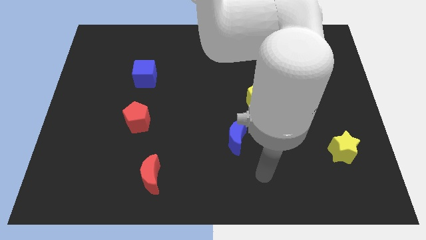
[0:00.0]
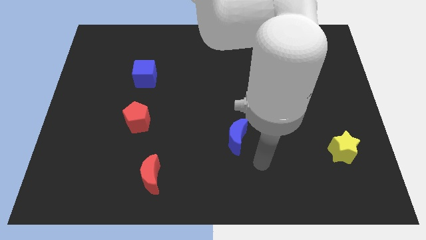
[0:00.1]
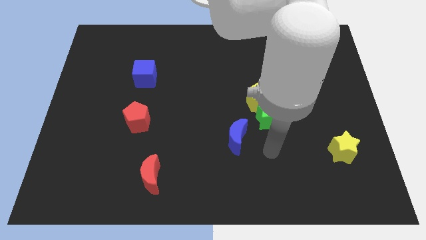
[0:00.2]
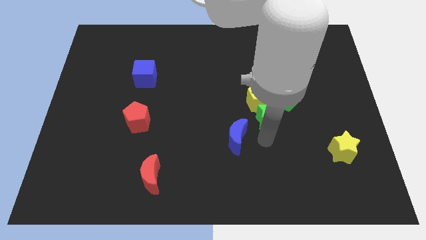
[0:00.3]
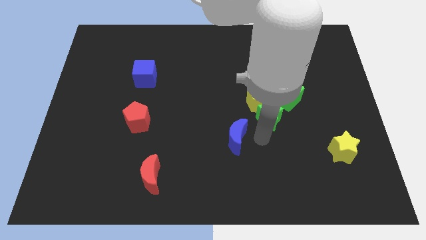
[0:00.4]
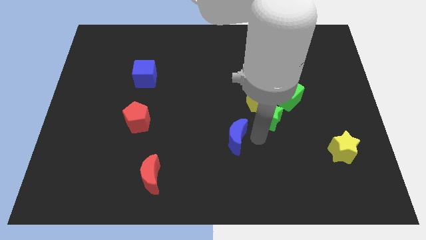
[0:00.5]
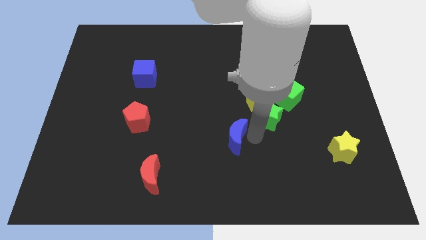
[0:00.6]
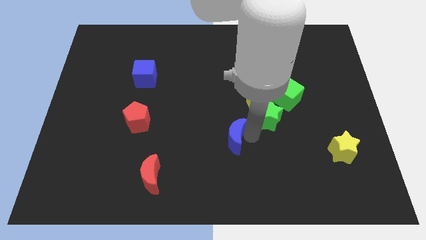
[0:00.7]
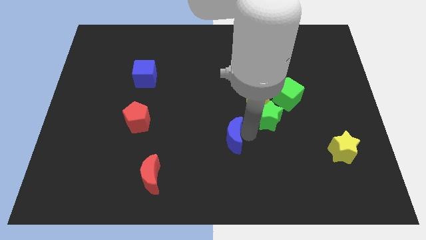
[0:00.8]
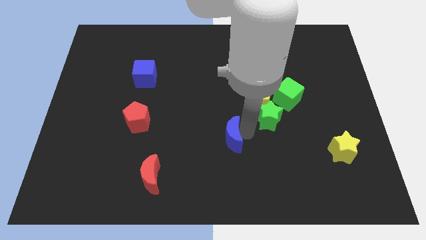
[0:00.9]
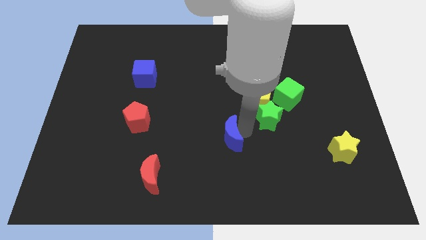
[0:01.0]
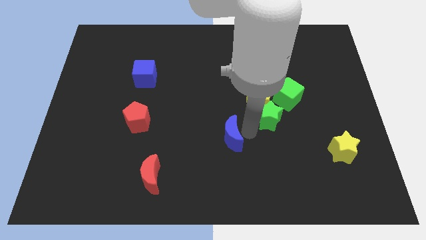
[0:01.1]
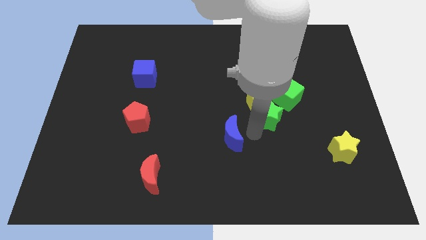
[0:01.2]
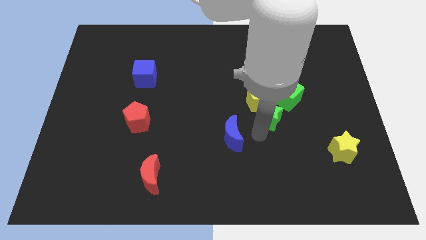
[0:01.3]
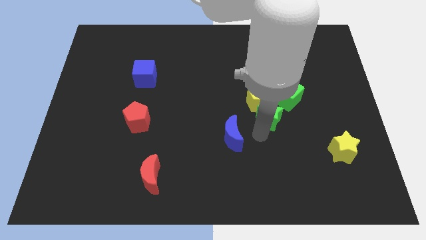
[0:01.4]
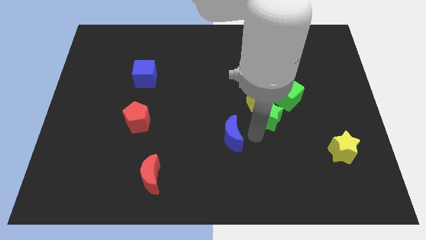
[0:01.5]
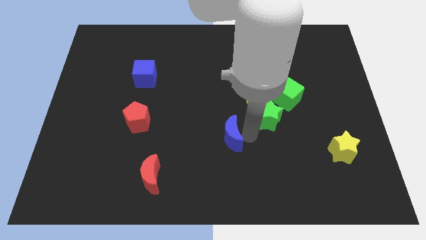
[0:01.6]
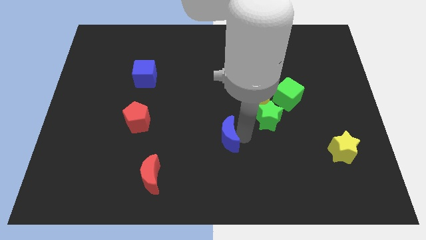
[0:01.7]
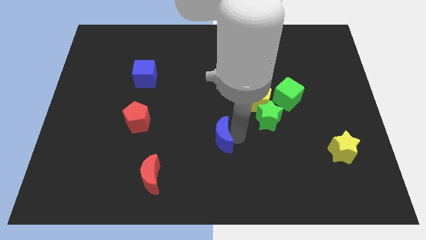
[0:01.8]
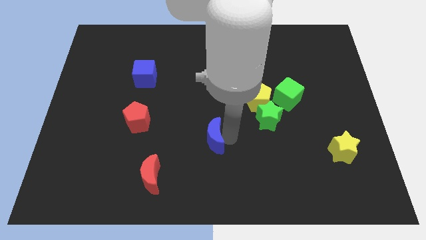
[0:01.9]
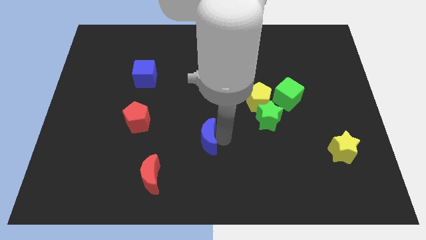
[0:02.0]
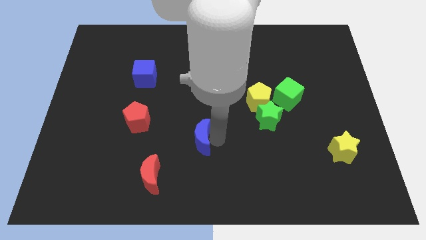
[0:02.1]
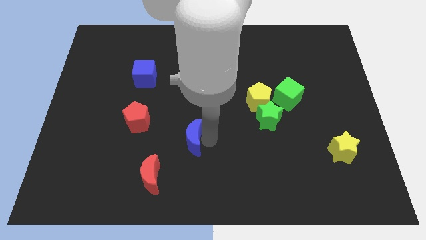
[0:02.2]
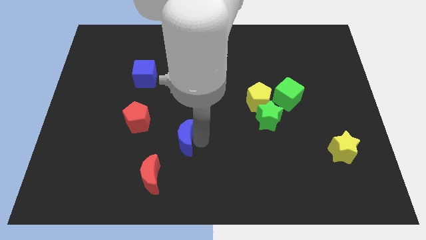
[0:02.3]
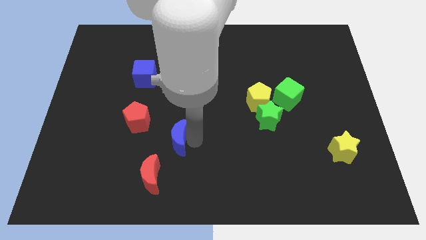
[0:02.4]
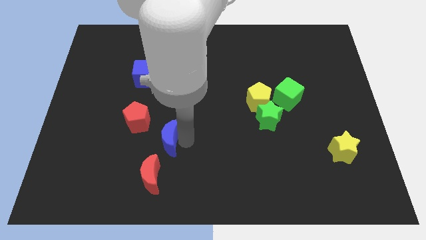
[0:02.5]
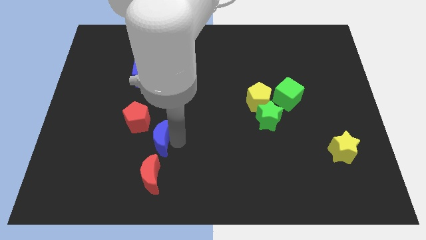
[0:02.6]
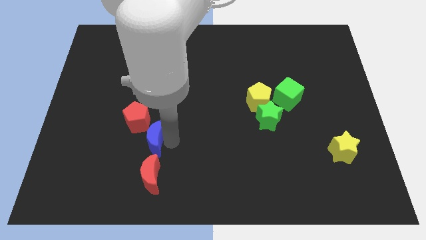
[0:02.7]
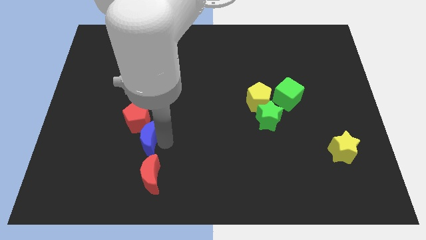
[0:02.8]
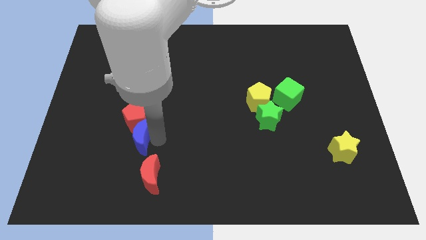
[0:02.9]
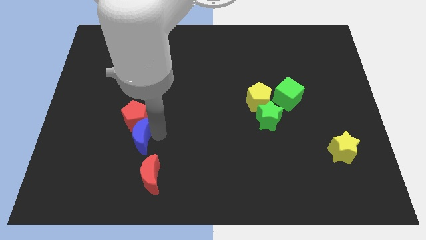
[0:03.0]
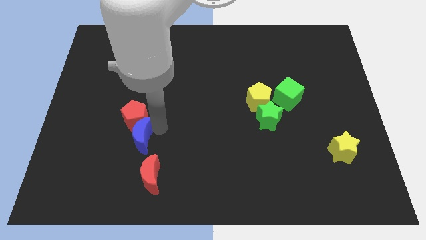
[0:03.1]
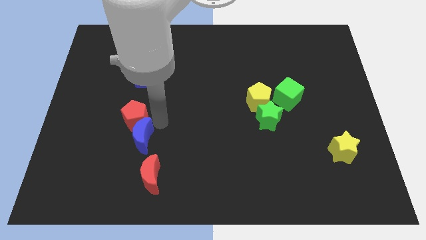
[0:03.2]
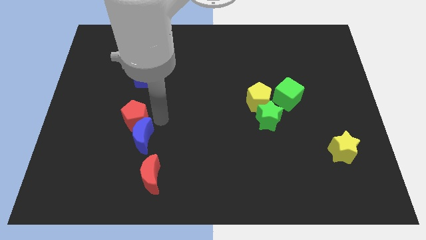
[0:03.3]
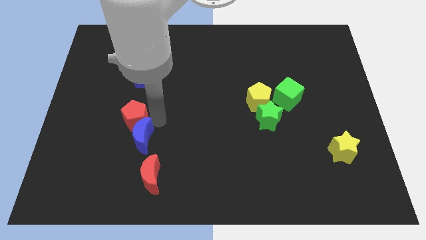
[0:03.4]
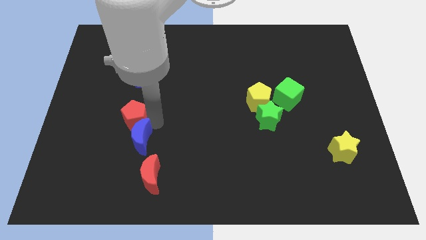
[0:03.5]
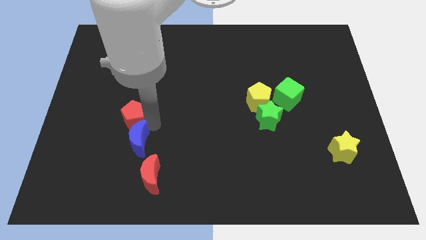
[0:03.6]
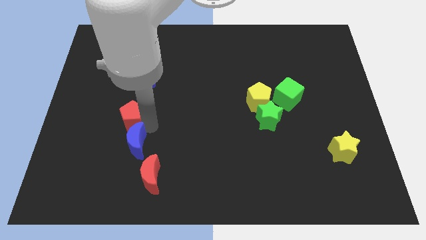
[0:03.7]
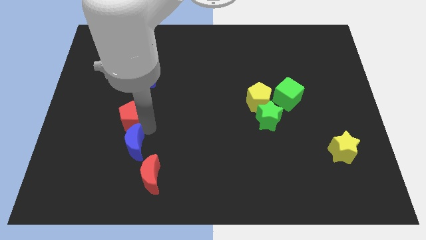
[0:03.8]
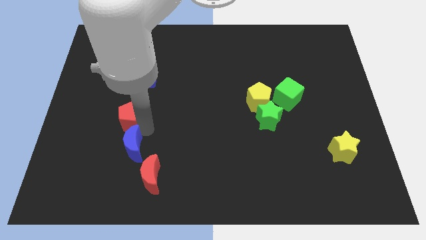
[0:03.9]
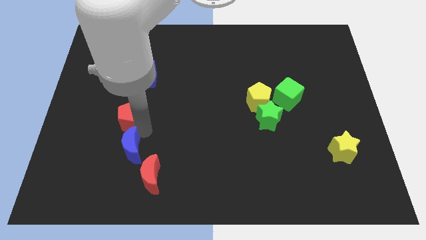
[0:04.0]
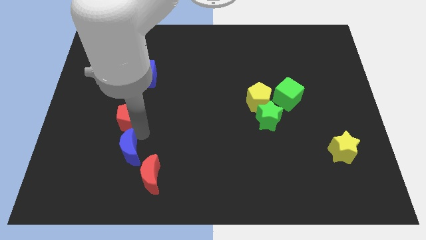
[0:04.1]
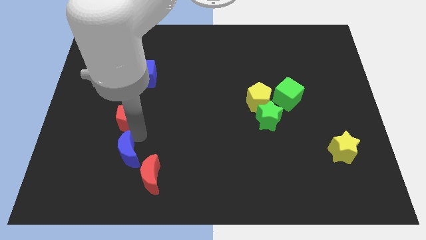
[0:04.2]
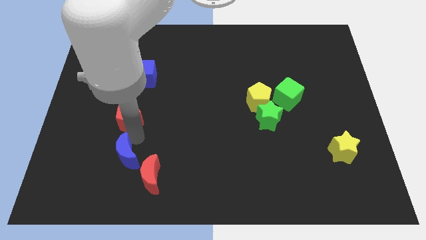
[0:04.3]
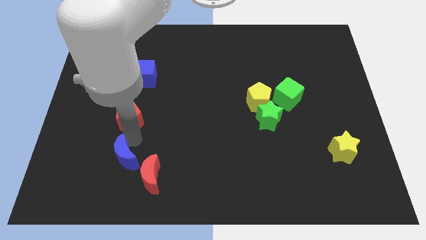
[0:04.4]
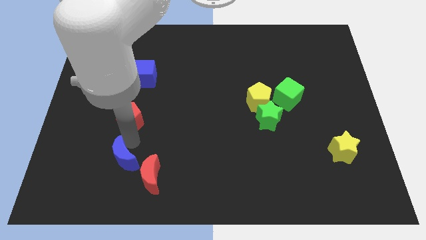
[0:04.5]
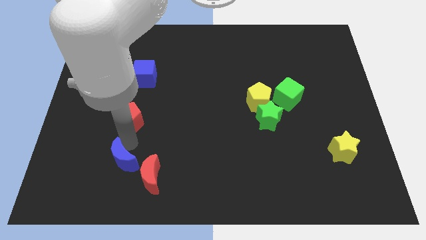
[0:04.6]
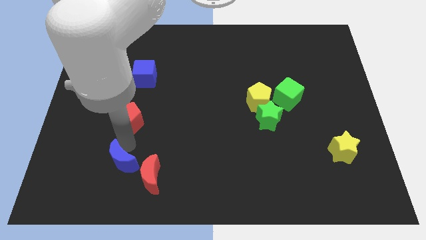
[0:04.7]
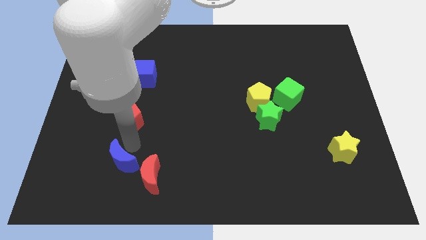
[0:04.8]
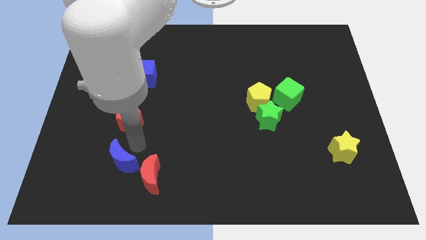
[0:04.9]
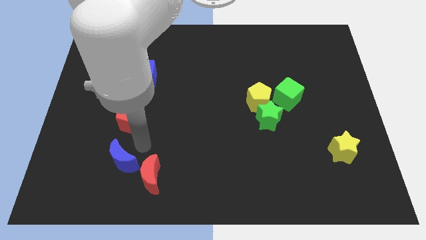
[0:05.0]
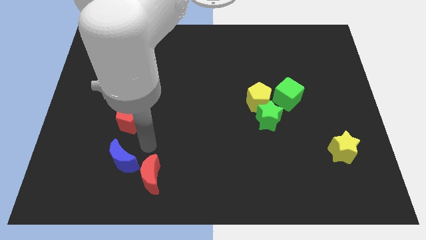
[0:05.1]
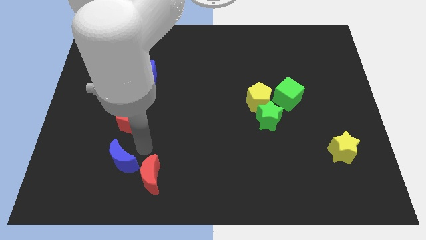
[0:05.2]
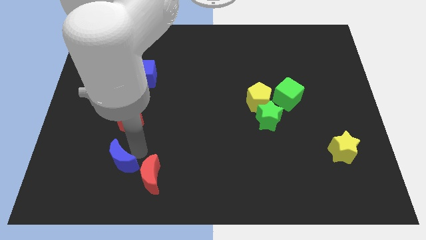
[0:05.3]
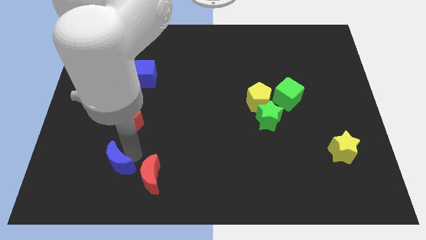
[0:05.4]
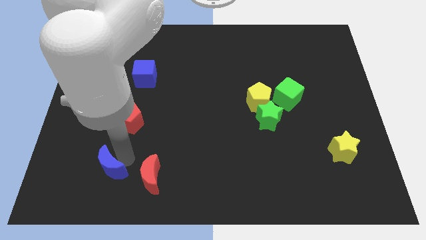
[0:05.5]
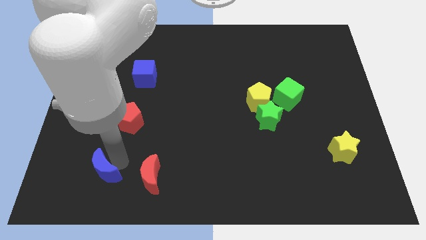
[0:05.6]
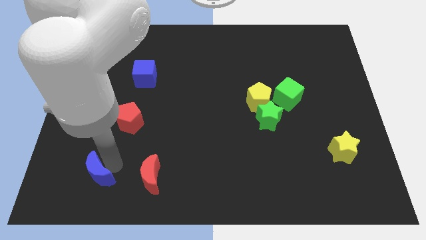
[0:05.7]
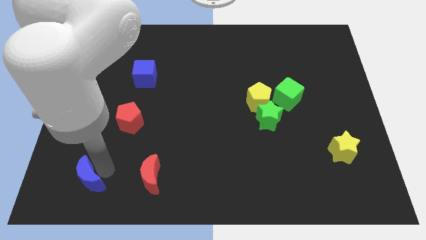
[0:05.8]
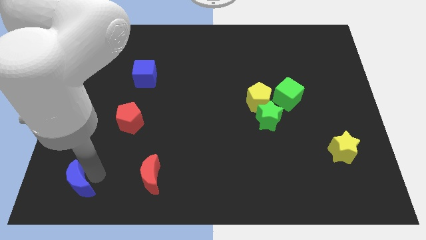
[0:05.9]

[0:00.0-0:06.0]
slide the blue moon to the lower left corner

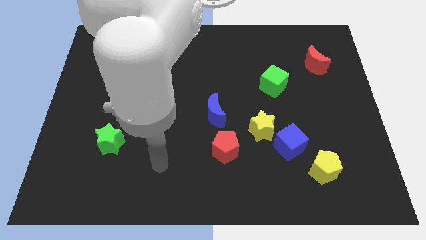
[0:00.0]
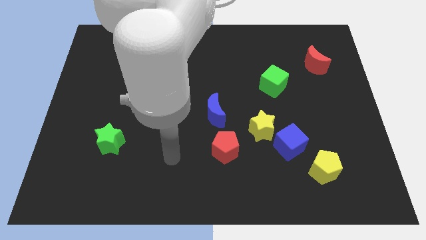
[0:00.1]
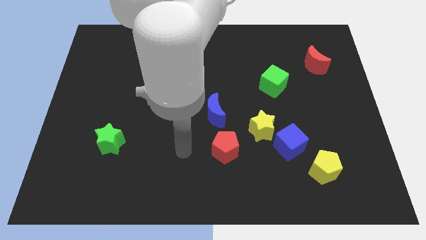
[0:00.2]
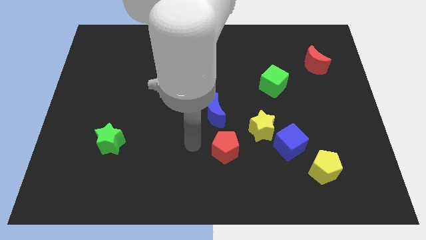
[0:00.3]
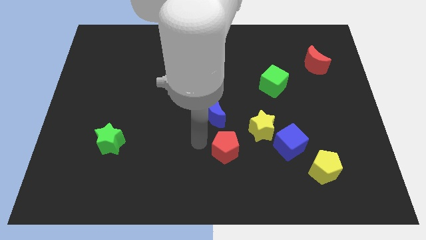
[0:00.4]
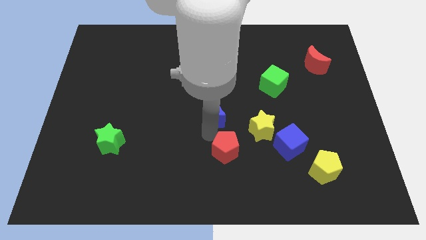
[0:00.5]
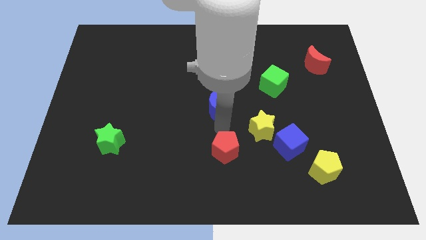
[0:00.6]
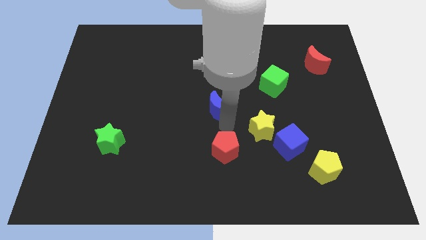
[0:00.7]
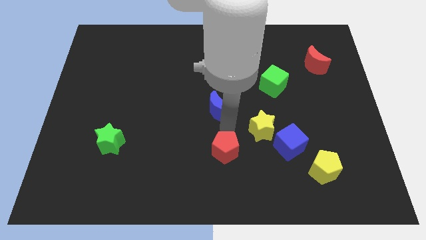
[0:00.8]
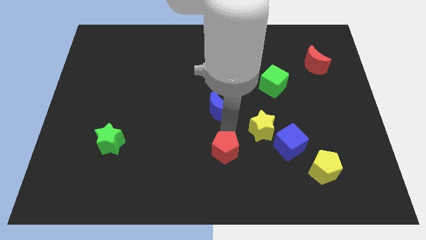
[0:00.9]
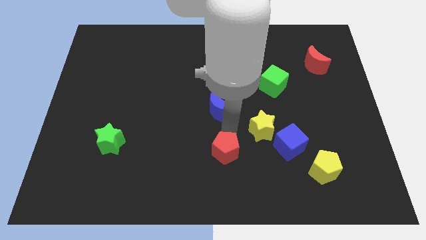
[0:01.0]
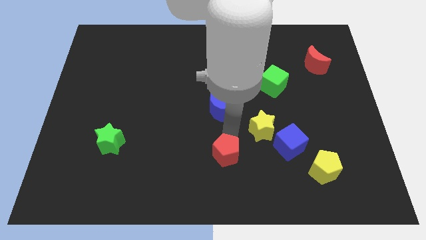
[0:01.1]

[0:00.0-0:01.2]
slide the red pentagon to the bottom side
